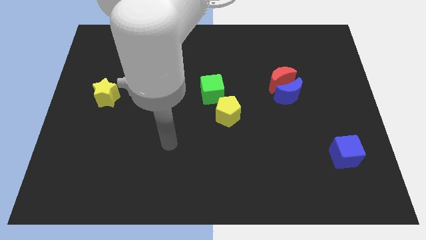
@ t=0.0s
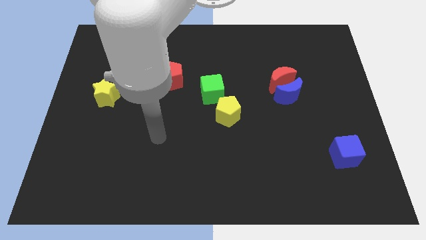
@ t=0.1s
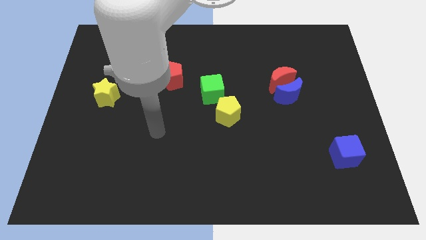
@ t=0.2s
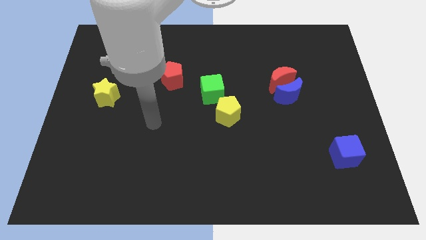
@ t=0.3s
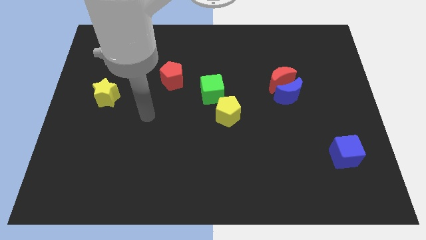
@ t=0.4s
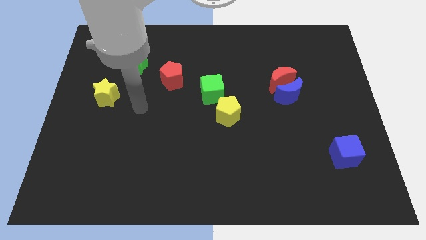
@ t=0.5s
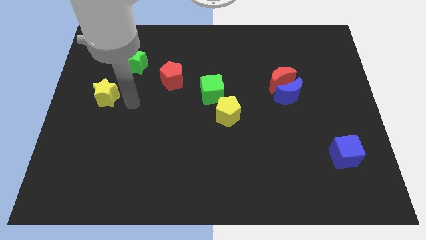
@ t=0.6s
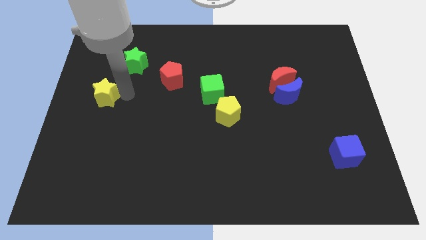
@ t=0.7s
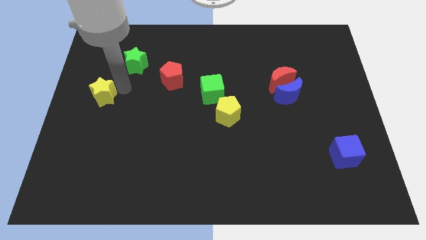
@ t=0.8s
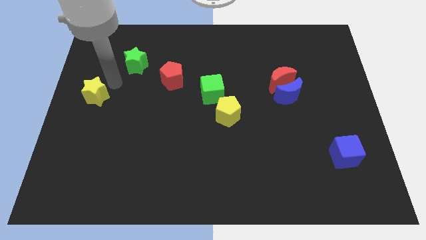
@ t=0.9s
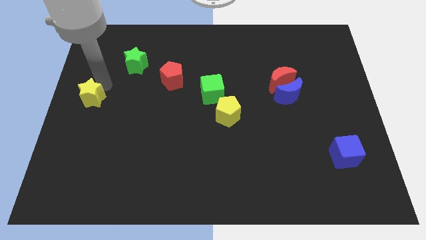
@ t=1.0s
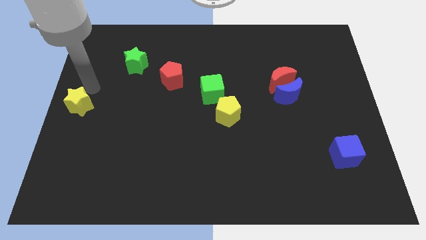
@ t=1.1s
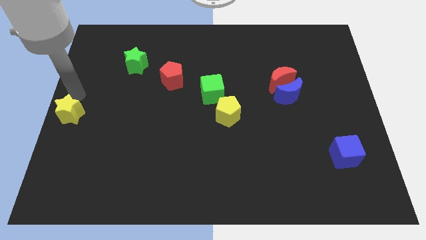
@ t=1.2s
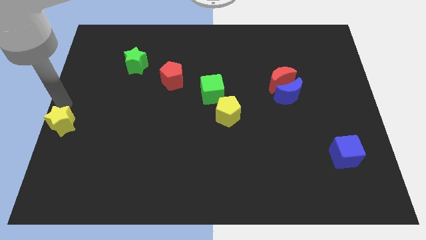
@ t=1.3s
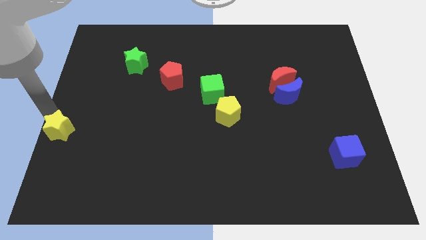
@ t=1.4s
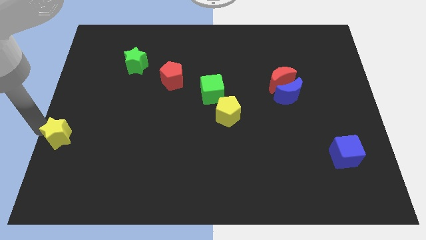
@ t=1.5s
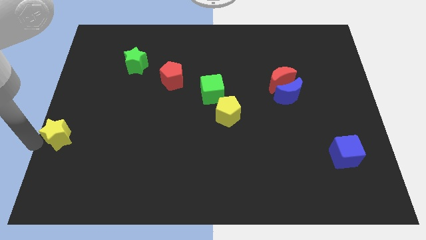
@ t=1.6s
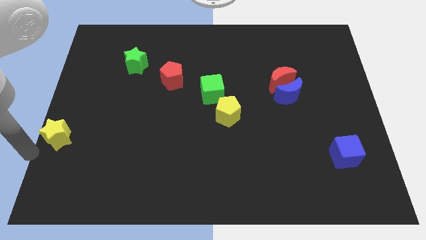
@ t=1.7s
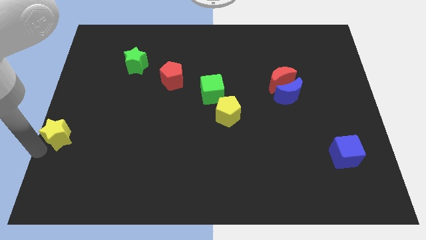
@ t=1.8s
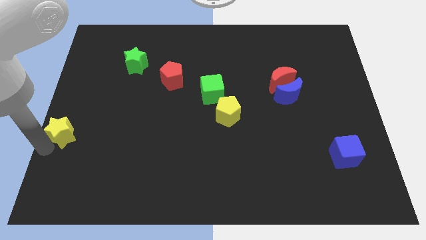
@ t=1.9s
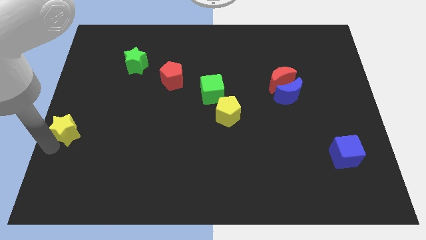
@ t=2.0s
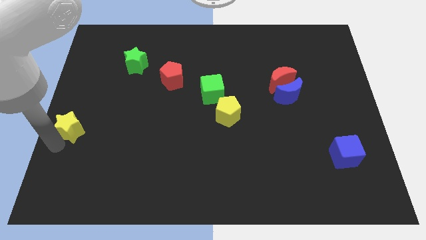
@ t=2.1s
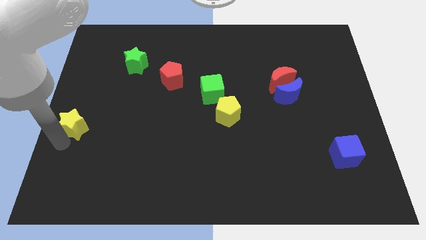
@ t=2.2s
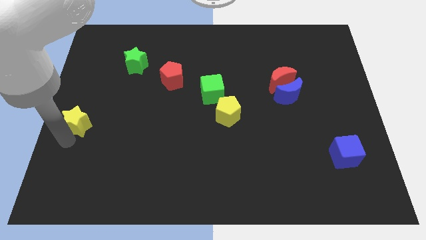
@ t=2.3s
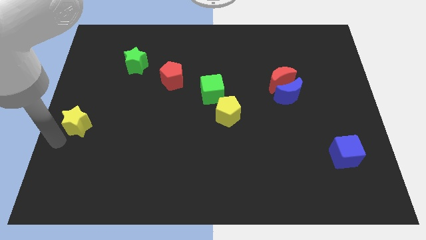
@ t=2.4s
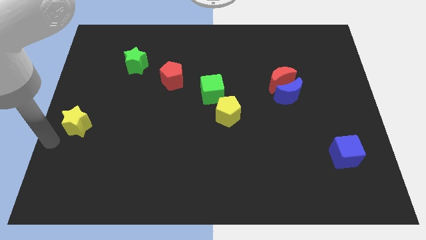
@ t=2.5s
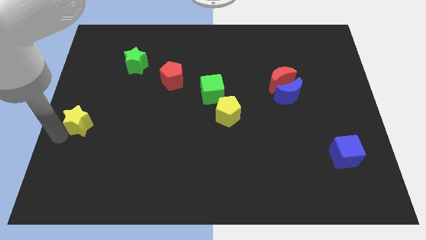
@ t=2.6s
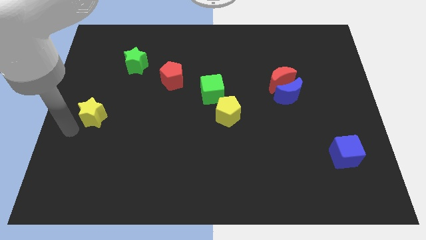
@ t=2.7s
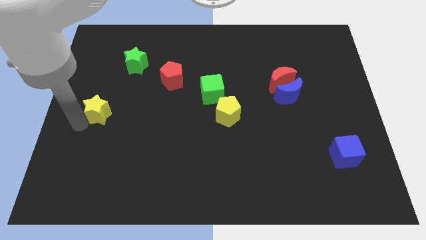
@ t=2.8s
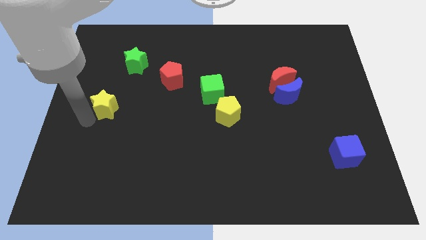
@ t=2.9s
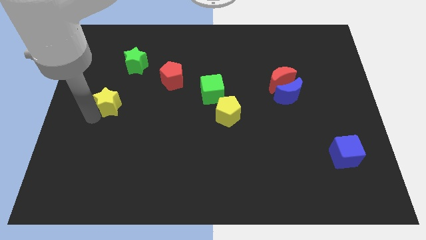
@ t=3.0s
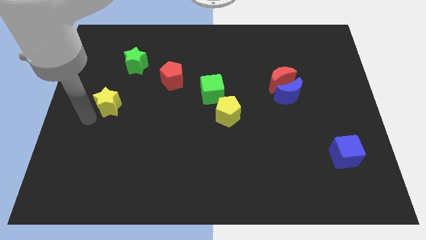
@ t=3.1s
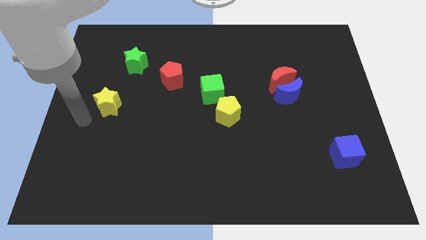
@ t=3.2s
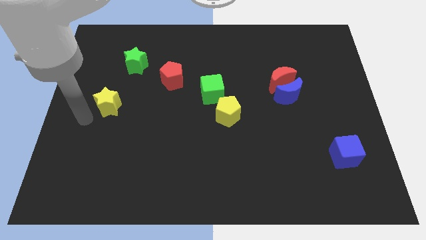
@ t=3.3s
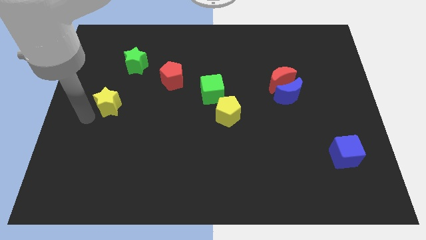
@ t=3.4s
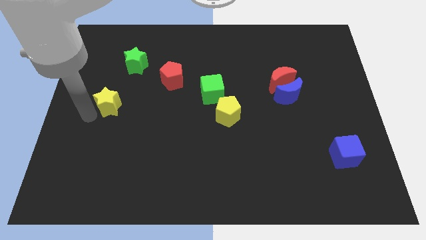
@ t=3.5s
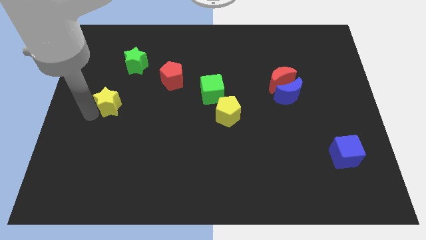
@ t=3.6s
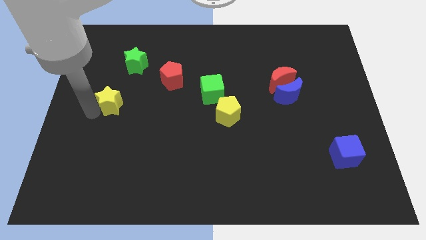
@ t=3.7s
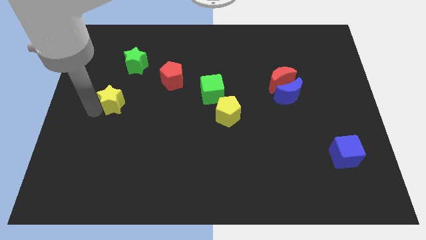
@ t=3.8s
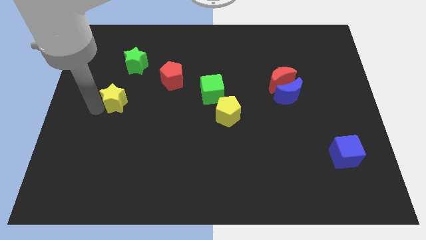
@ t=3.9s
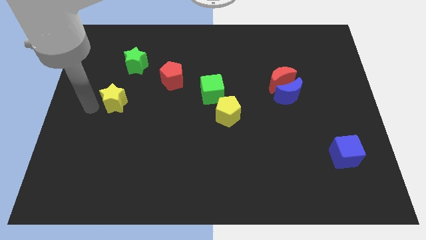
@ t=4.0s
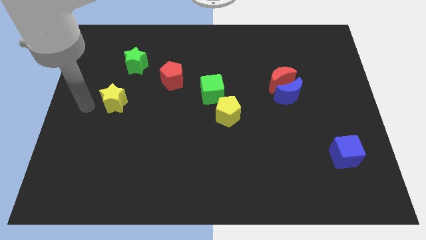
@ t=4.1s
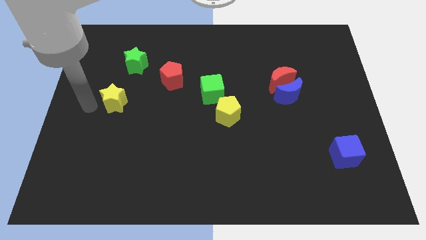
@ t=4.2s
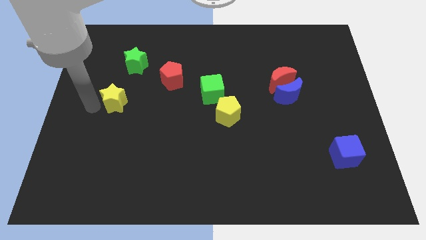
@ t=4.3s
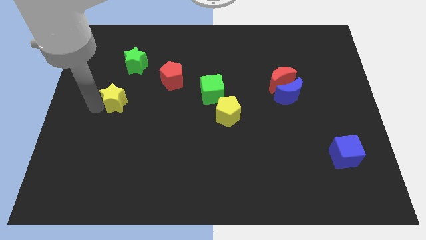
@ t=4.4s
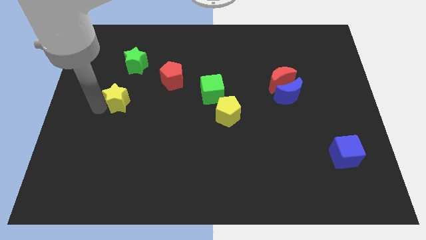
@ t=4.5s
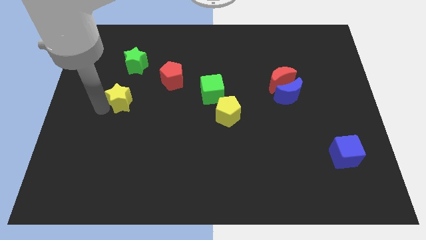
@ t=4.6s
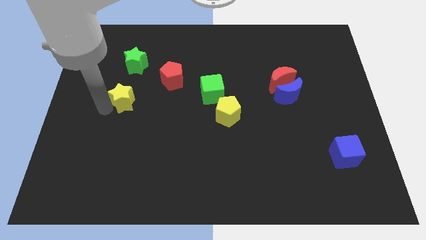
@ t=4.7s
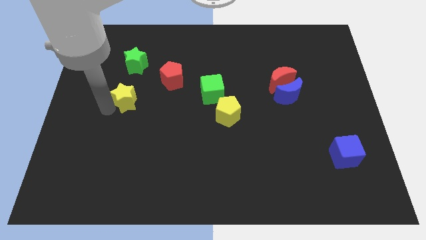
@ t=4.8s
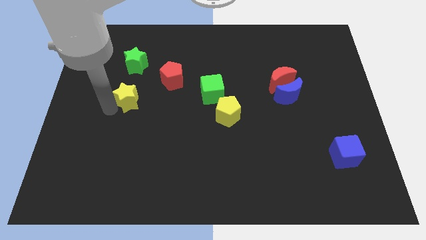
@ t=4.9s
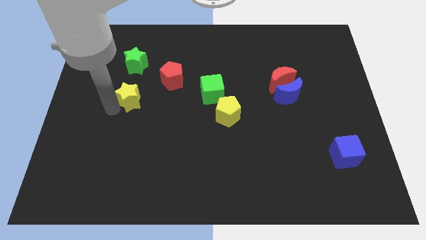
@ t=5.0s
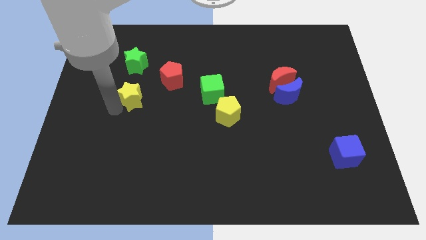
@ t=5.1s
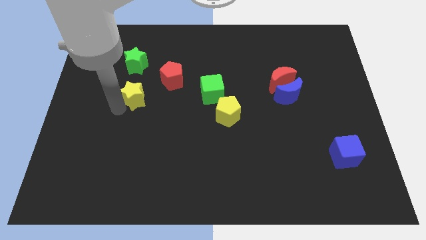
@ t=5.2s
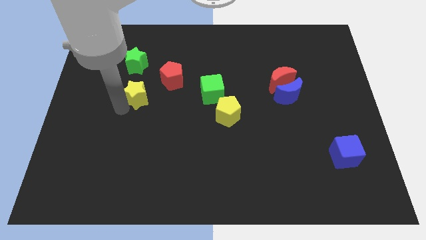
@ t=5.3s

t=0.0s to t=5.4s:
move the yellow star right a little bit

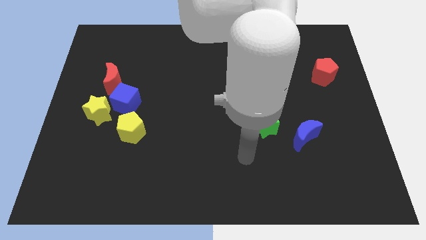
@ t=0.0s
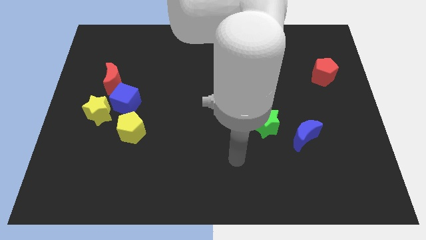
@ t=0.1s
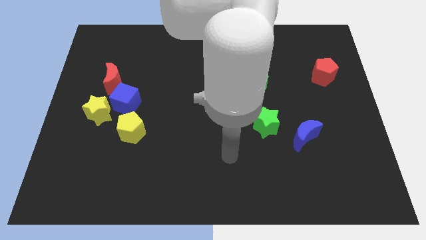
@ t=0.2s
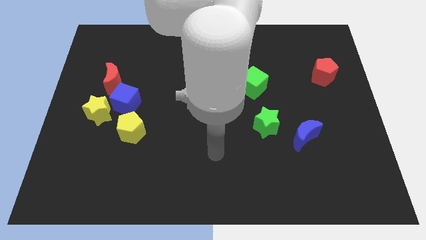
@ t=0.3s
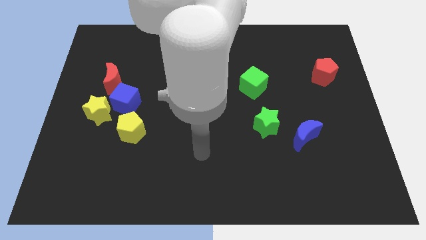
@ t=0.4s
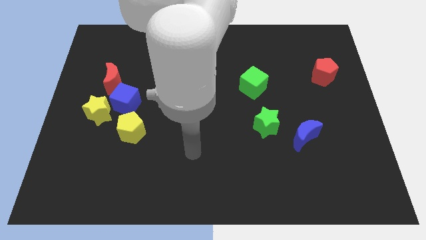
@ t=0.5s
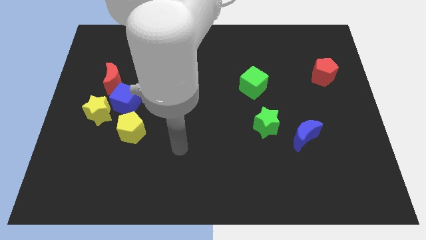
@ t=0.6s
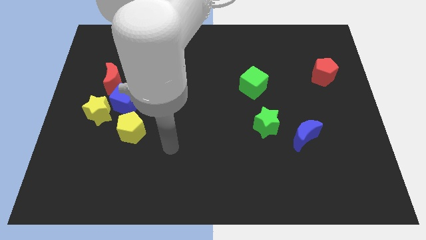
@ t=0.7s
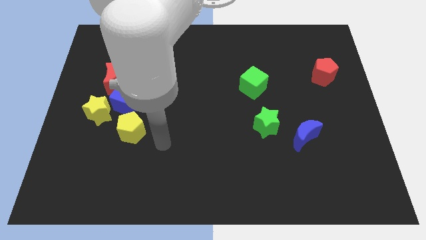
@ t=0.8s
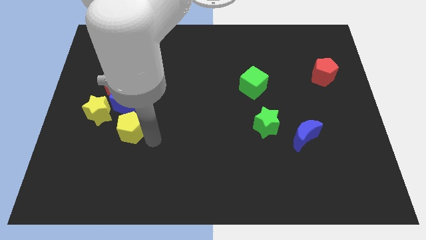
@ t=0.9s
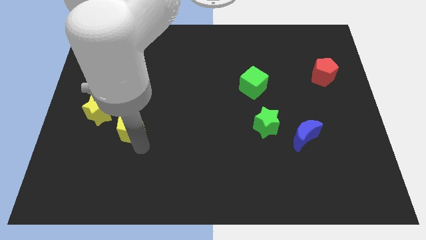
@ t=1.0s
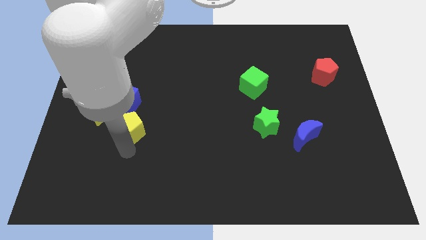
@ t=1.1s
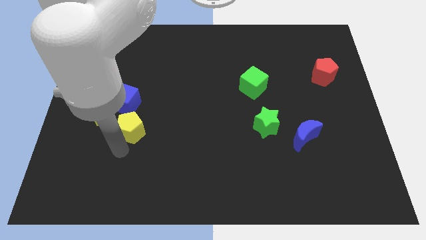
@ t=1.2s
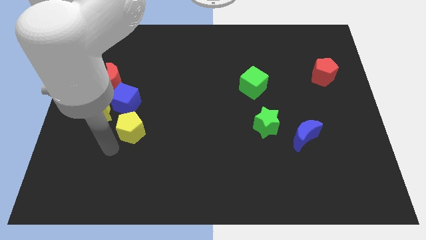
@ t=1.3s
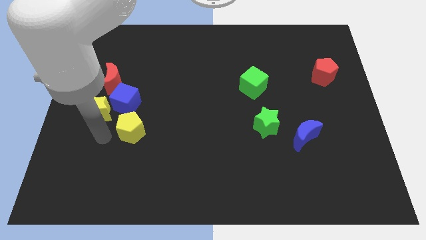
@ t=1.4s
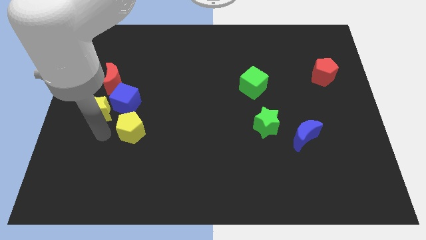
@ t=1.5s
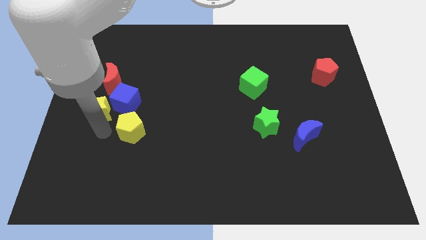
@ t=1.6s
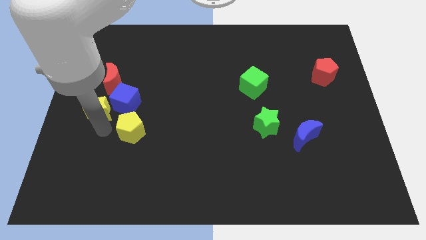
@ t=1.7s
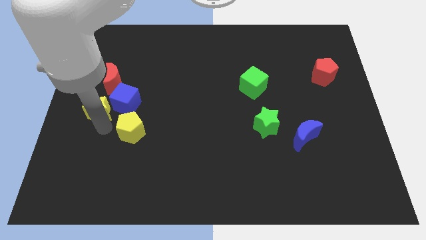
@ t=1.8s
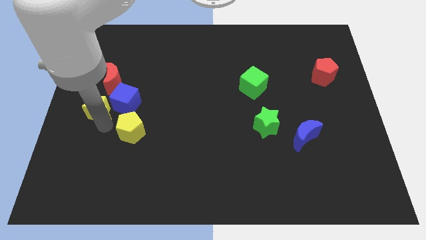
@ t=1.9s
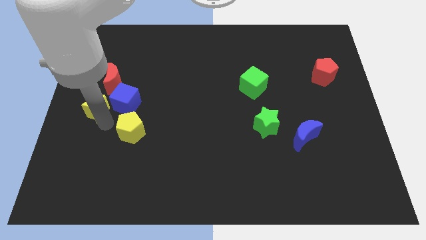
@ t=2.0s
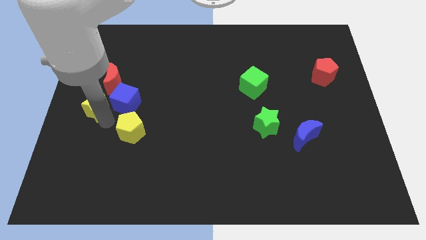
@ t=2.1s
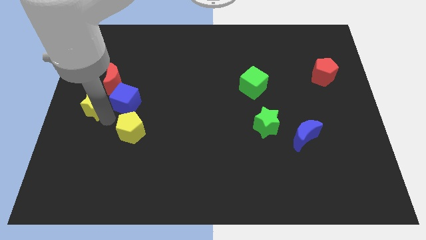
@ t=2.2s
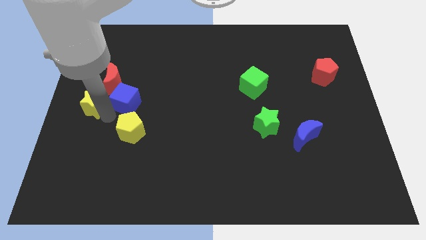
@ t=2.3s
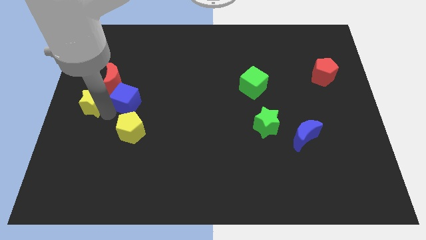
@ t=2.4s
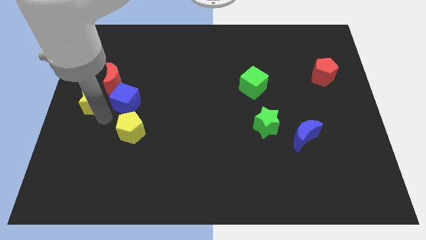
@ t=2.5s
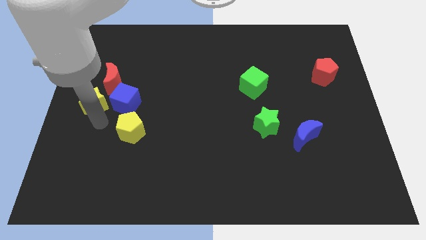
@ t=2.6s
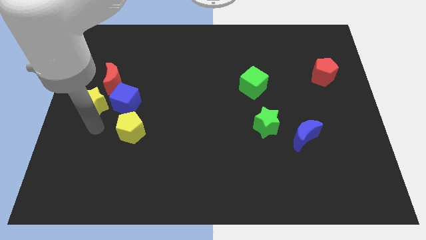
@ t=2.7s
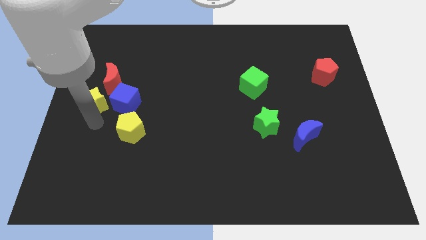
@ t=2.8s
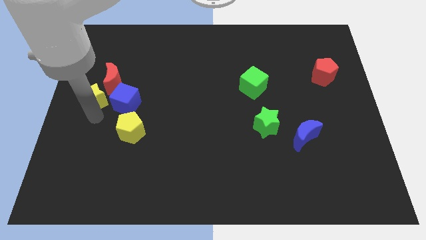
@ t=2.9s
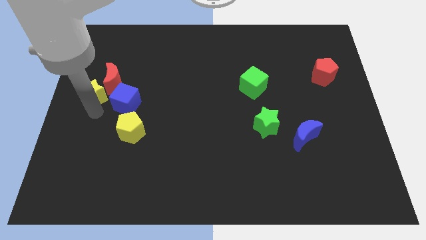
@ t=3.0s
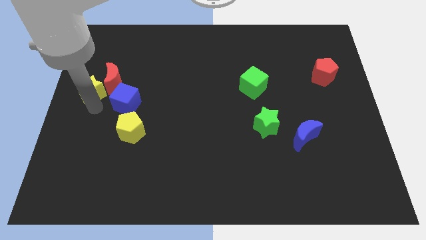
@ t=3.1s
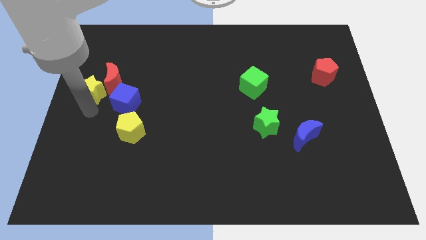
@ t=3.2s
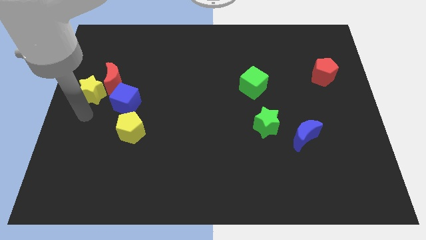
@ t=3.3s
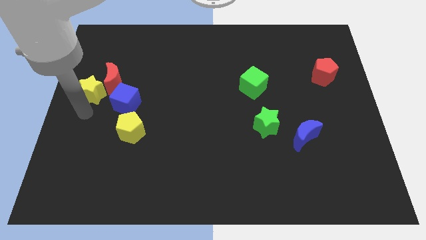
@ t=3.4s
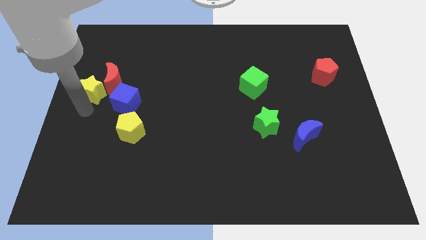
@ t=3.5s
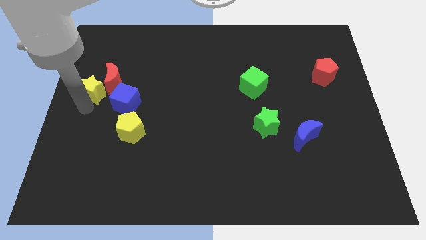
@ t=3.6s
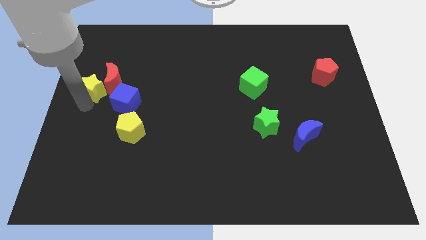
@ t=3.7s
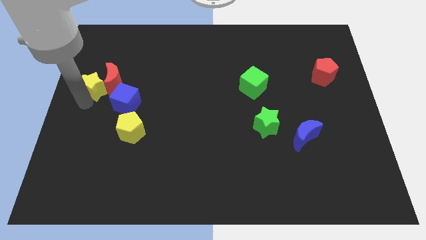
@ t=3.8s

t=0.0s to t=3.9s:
move the yellow star somewhat up
